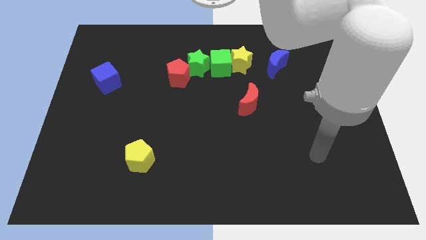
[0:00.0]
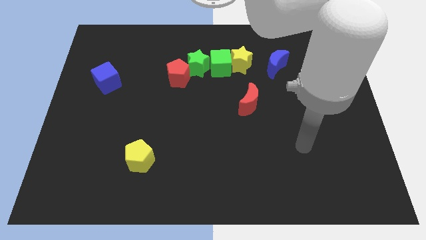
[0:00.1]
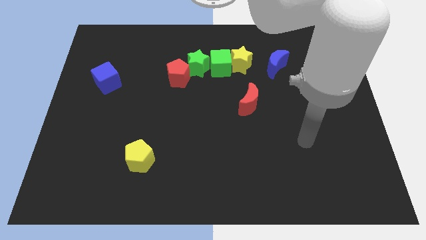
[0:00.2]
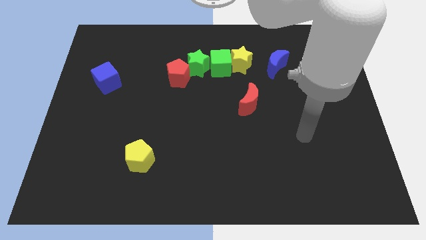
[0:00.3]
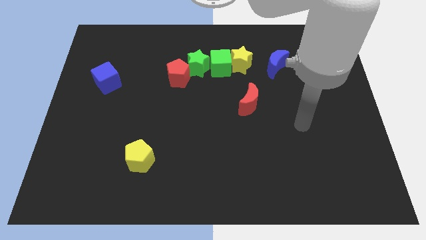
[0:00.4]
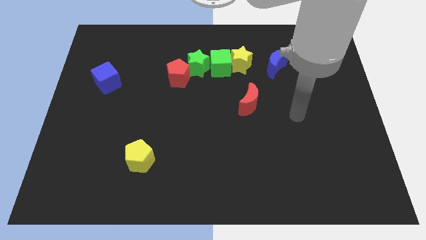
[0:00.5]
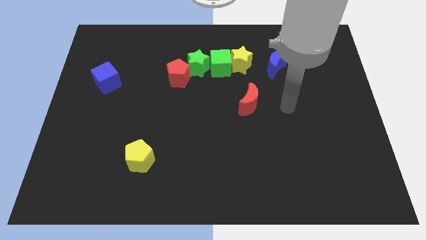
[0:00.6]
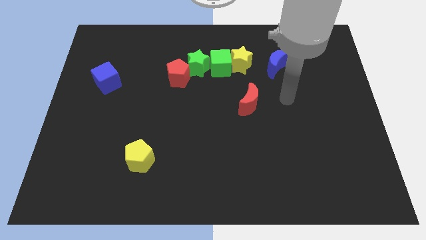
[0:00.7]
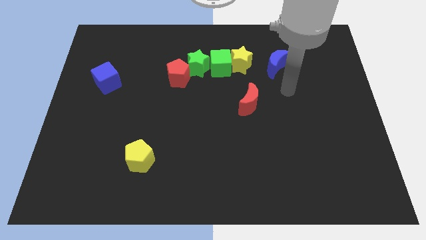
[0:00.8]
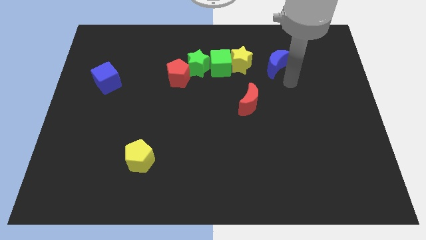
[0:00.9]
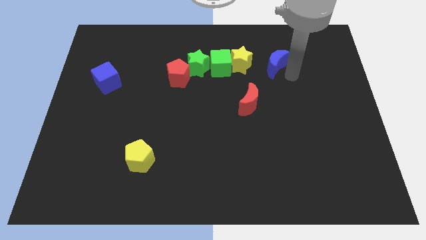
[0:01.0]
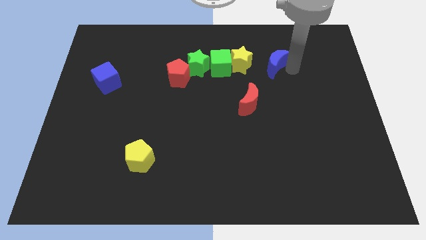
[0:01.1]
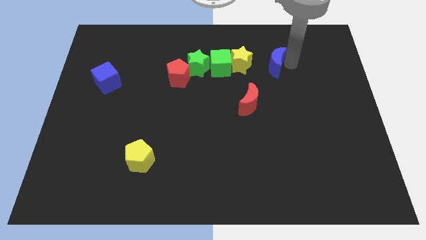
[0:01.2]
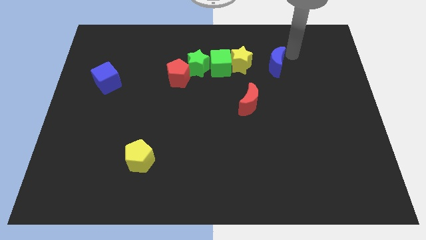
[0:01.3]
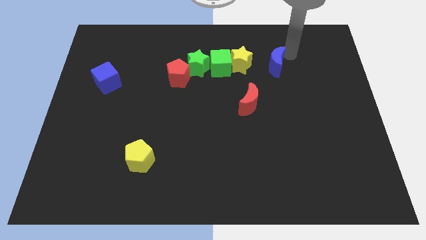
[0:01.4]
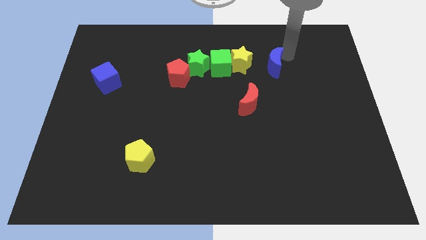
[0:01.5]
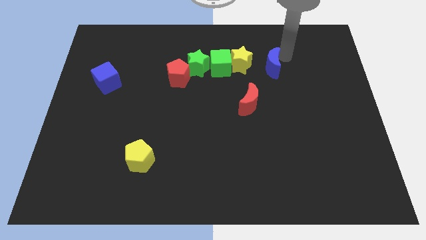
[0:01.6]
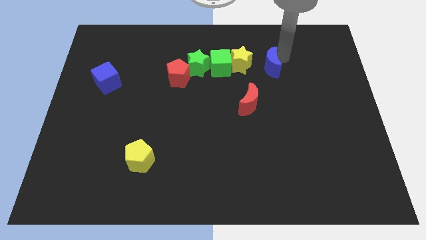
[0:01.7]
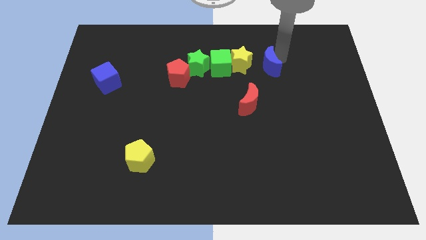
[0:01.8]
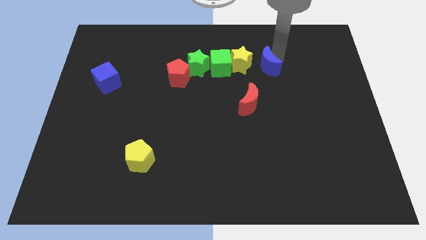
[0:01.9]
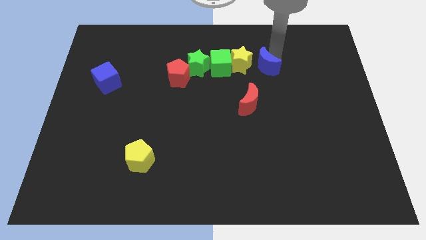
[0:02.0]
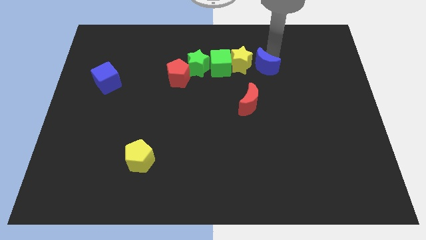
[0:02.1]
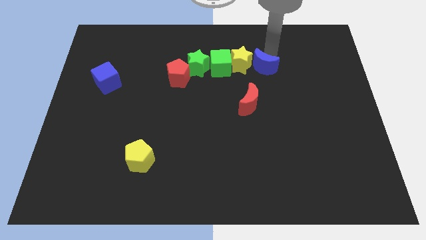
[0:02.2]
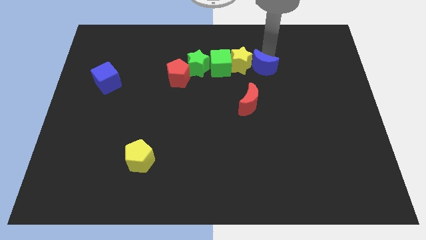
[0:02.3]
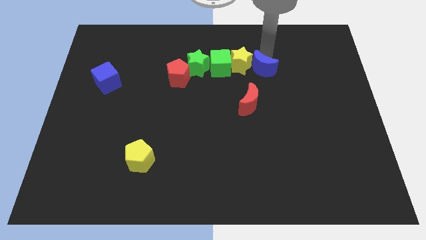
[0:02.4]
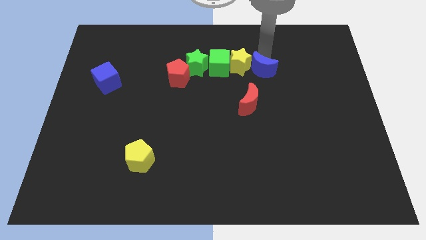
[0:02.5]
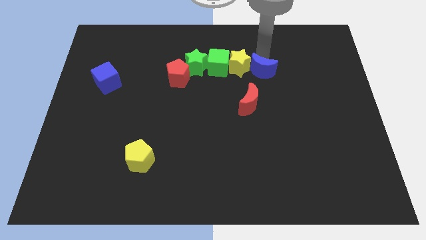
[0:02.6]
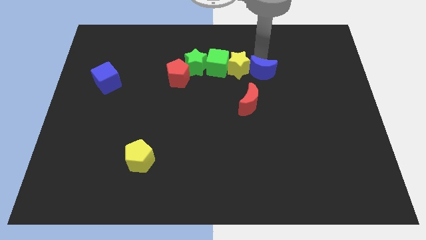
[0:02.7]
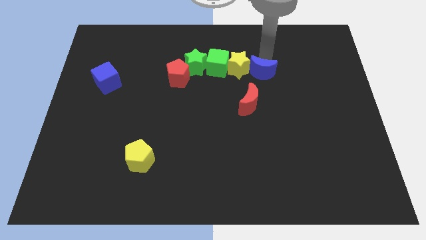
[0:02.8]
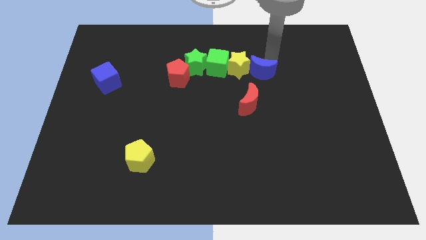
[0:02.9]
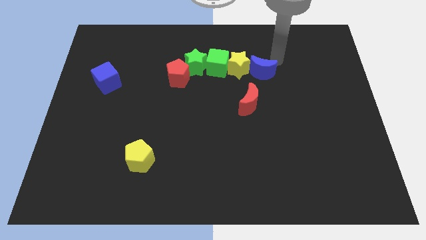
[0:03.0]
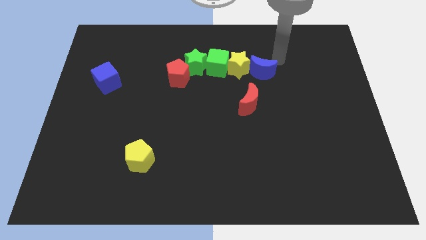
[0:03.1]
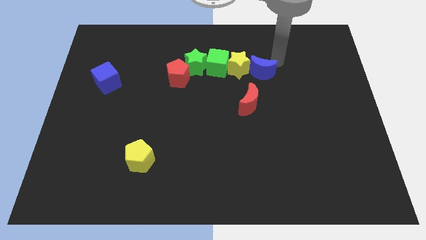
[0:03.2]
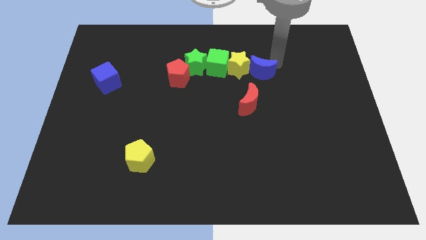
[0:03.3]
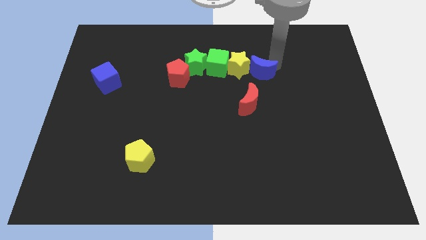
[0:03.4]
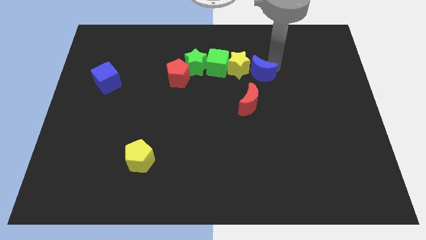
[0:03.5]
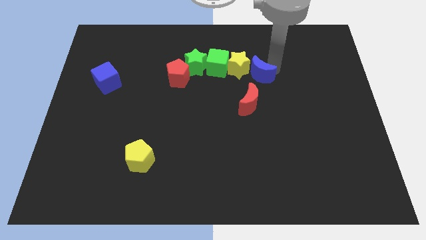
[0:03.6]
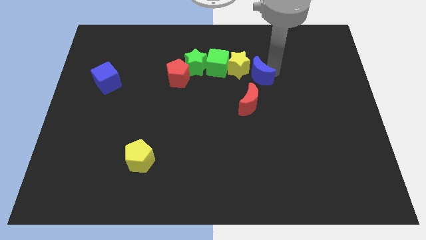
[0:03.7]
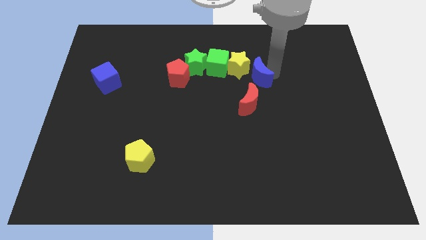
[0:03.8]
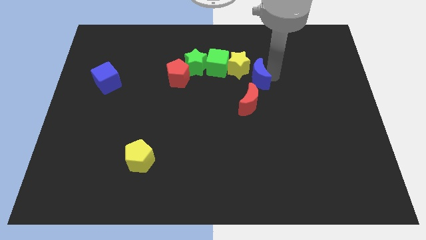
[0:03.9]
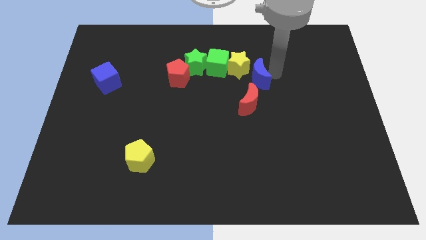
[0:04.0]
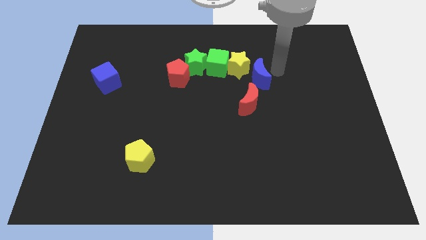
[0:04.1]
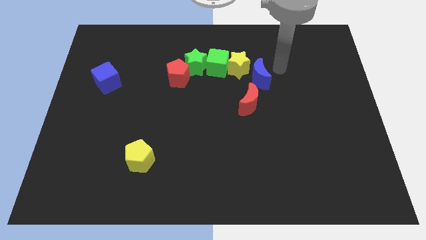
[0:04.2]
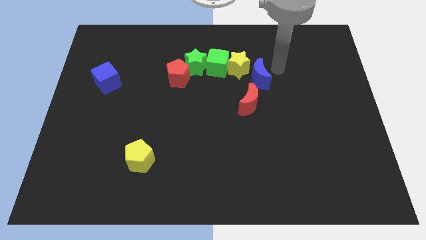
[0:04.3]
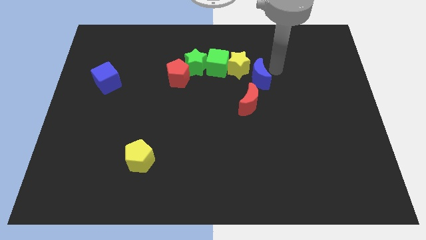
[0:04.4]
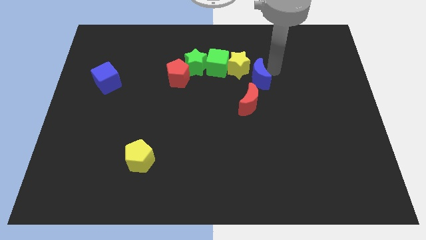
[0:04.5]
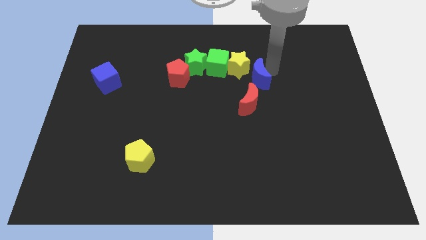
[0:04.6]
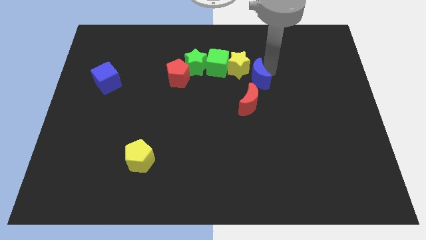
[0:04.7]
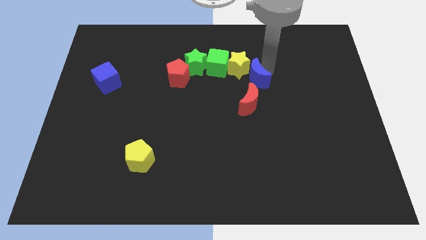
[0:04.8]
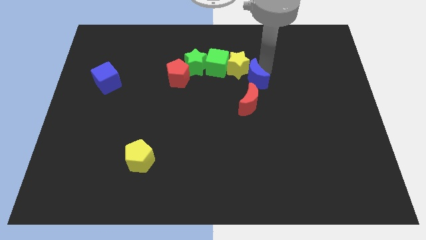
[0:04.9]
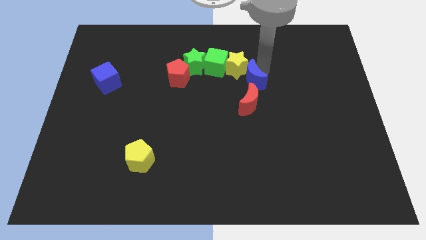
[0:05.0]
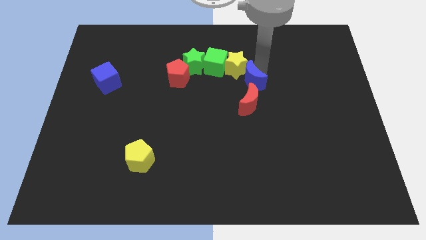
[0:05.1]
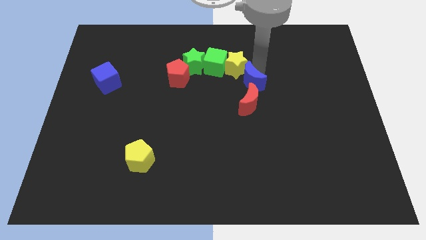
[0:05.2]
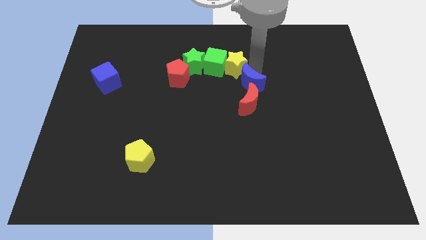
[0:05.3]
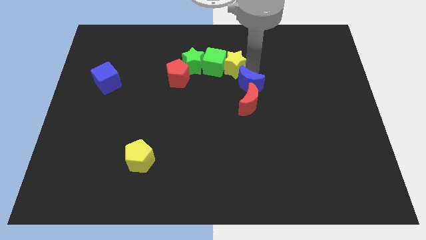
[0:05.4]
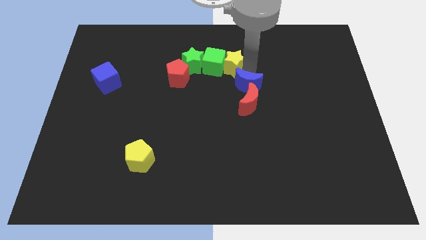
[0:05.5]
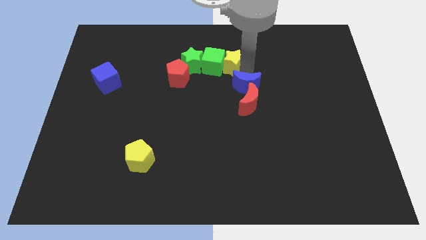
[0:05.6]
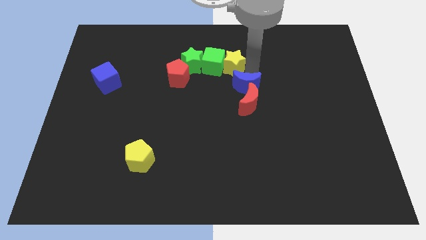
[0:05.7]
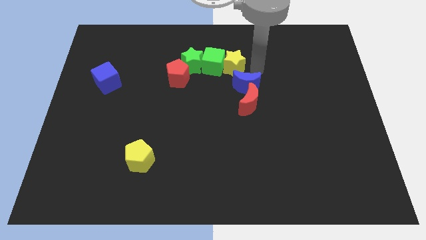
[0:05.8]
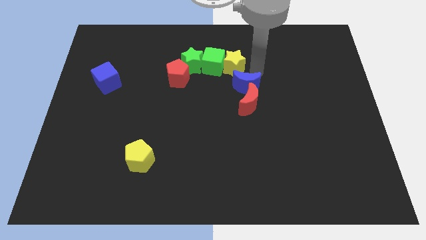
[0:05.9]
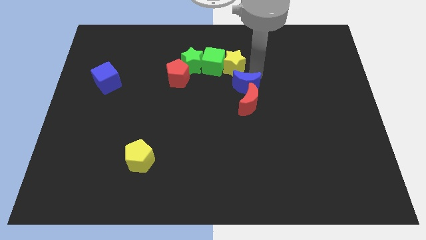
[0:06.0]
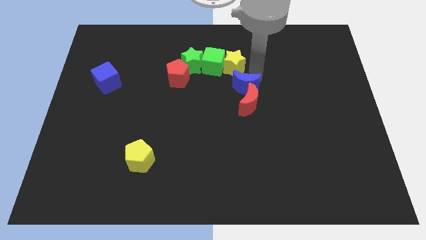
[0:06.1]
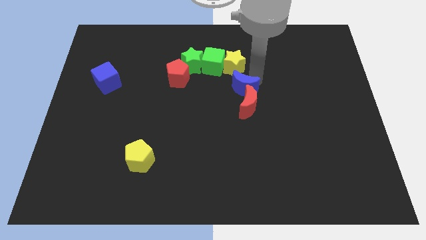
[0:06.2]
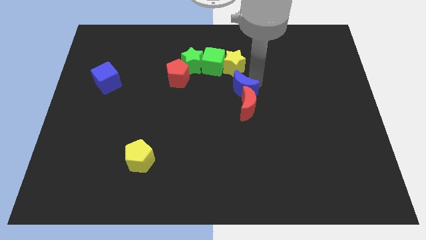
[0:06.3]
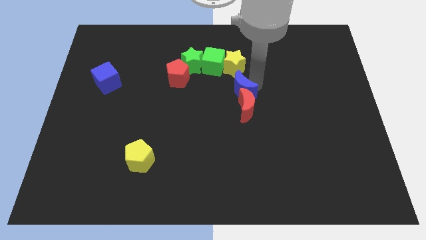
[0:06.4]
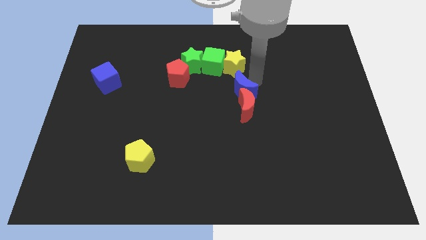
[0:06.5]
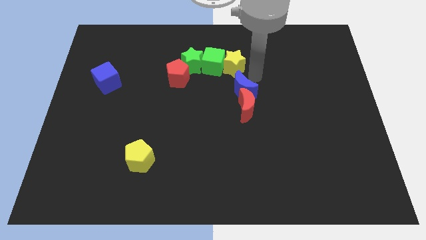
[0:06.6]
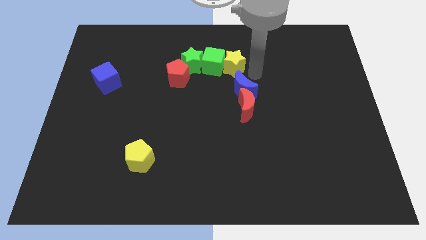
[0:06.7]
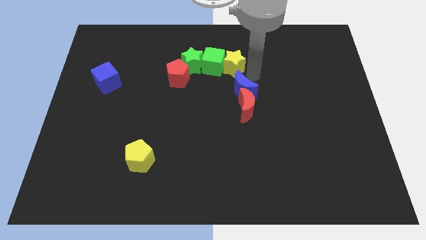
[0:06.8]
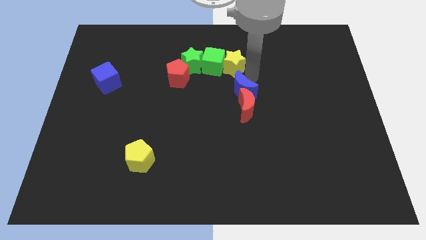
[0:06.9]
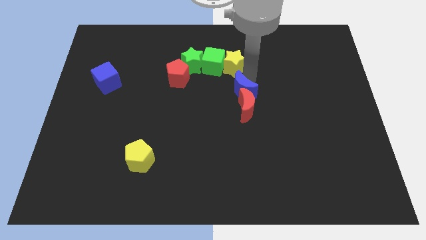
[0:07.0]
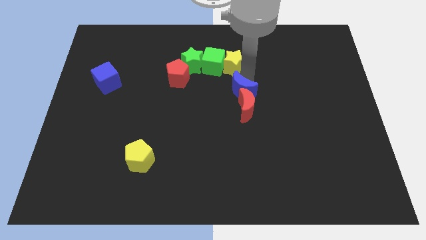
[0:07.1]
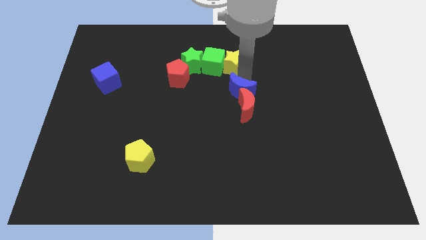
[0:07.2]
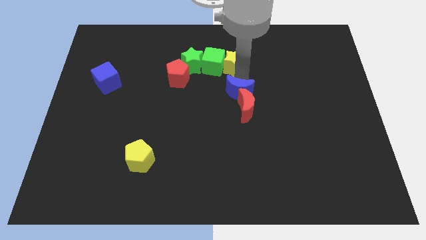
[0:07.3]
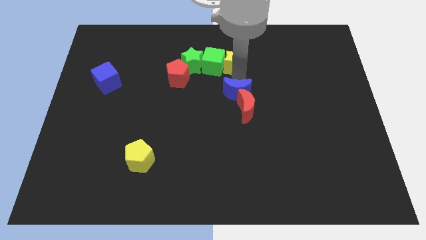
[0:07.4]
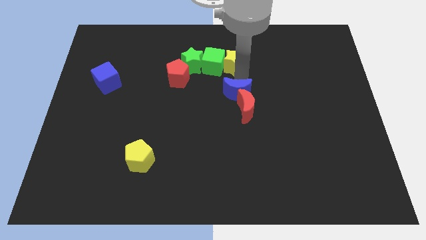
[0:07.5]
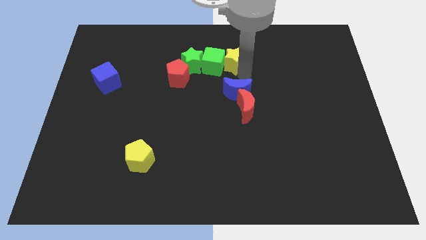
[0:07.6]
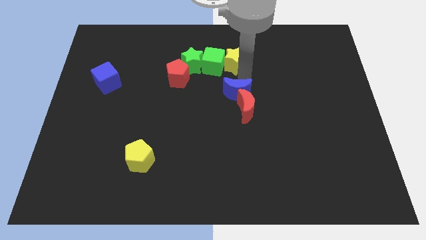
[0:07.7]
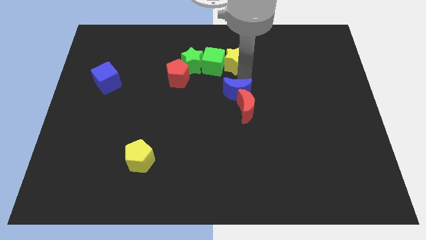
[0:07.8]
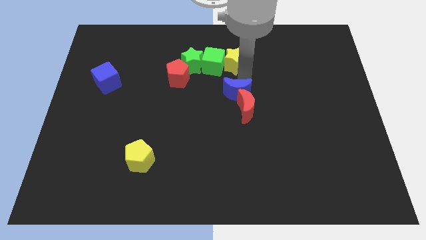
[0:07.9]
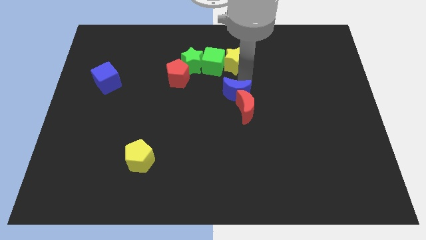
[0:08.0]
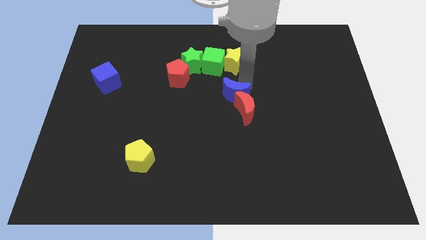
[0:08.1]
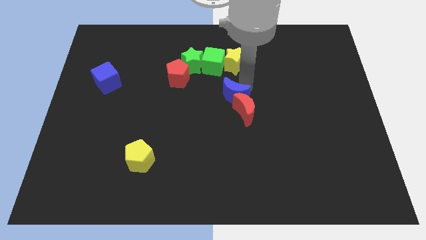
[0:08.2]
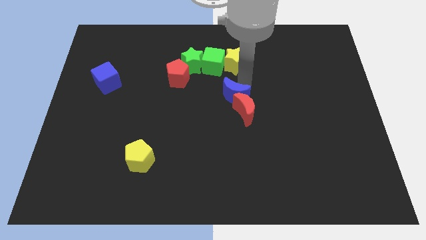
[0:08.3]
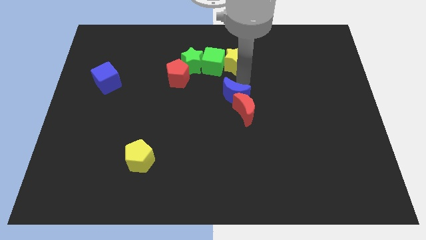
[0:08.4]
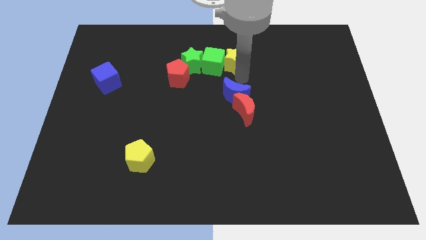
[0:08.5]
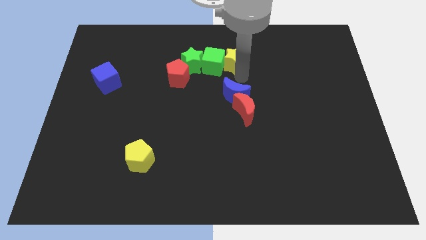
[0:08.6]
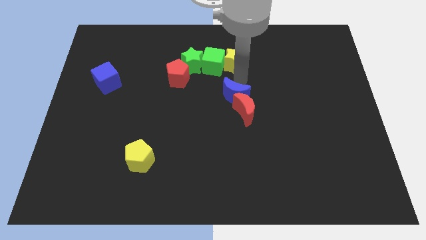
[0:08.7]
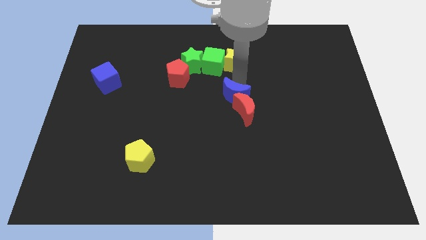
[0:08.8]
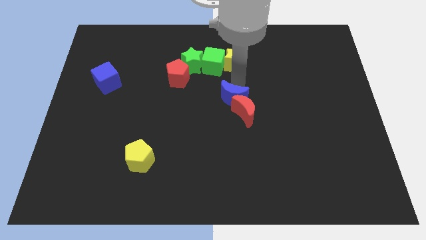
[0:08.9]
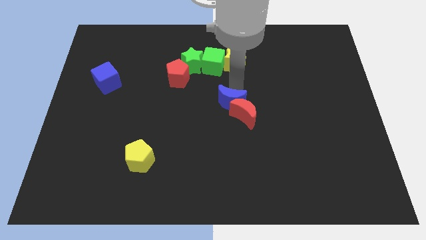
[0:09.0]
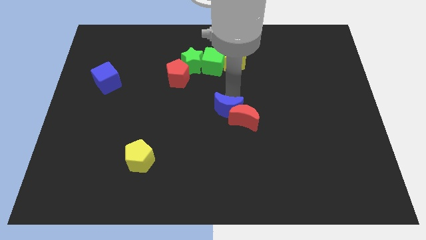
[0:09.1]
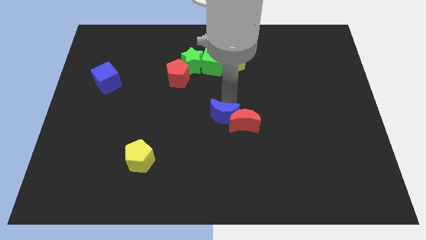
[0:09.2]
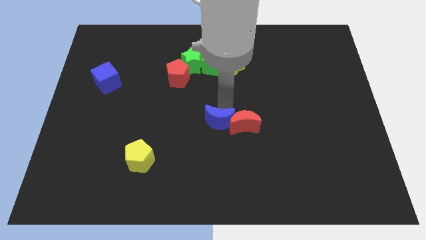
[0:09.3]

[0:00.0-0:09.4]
push the blue moon to the bottom left side of the red moon
